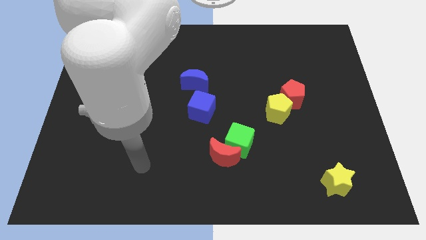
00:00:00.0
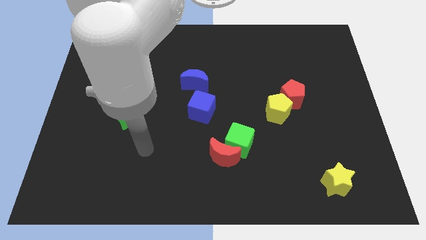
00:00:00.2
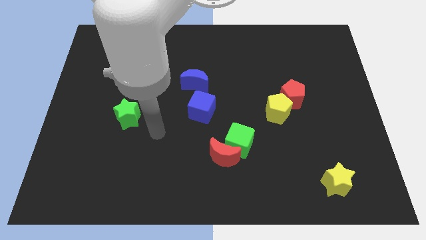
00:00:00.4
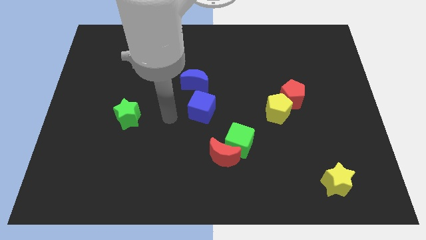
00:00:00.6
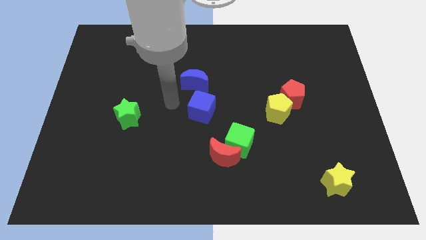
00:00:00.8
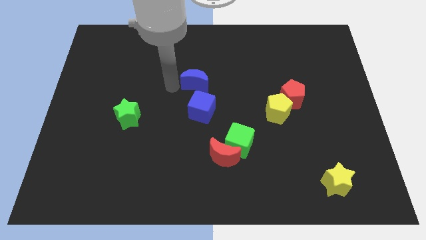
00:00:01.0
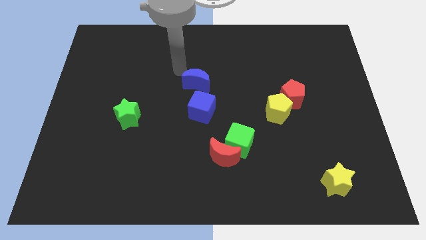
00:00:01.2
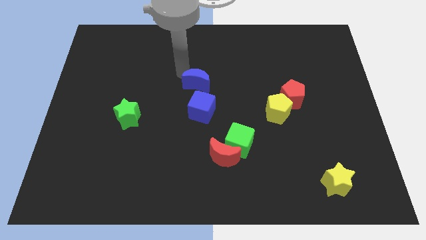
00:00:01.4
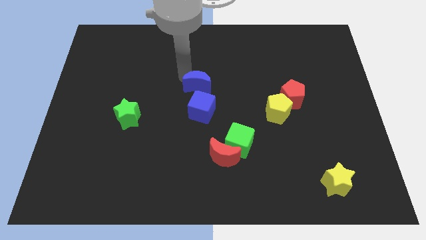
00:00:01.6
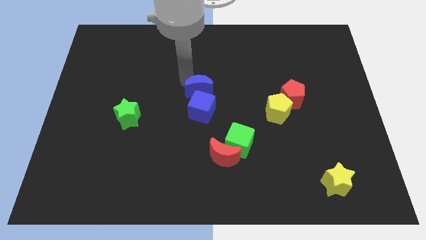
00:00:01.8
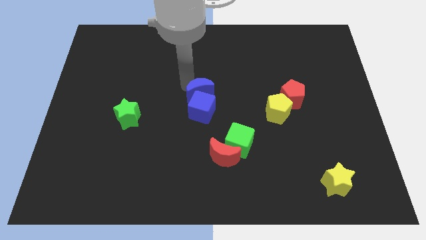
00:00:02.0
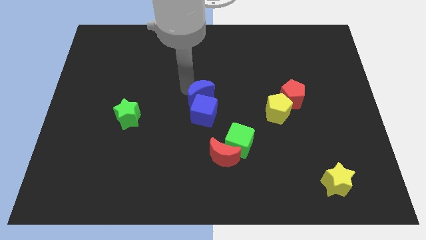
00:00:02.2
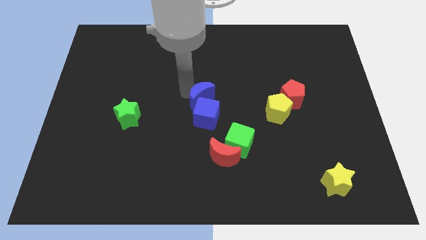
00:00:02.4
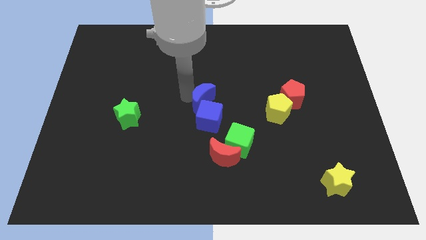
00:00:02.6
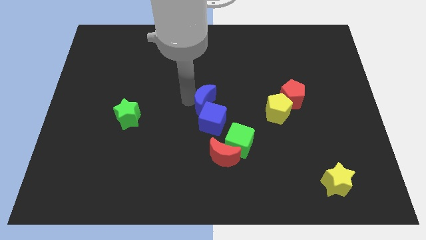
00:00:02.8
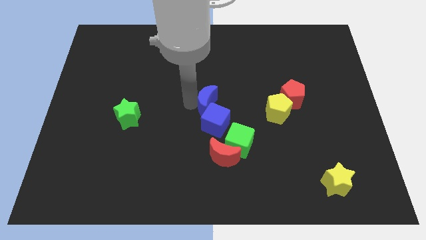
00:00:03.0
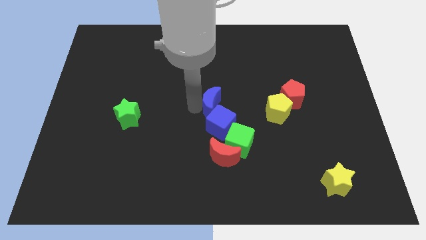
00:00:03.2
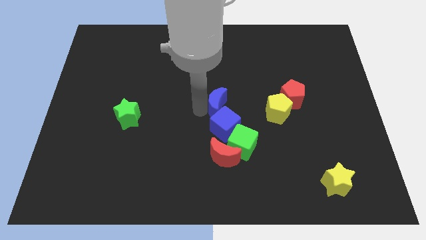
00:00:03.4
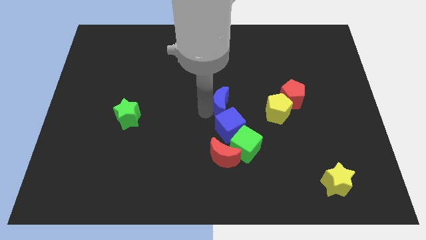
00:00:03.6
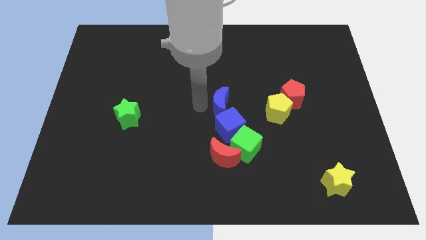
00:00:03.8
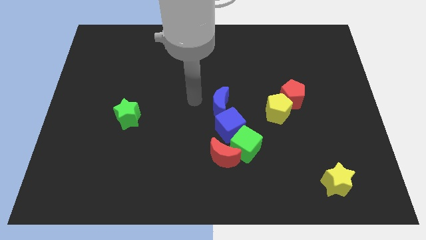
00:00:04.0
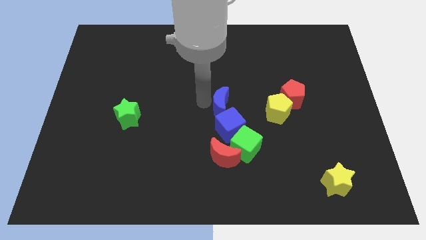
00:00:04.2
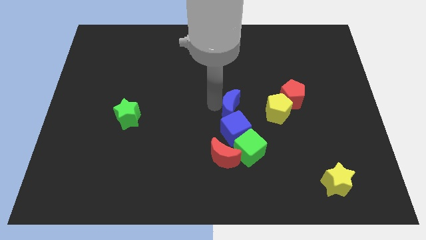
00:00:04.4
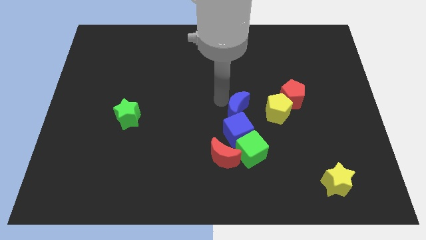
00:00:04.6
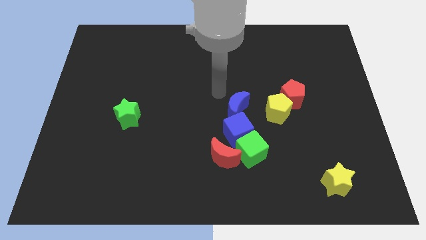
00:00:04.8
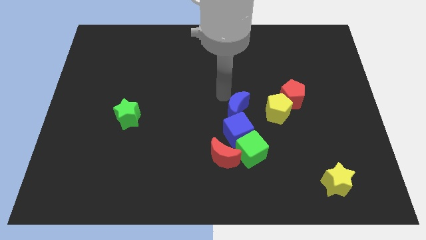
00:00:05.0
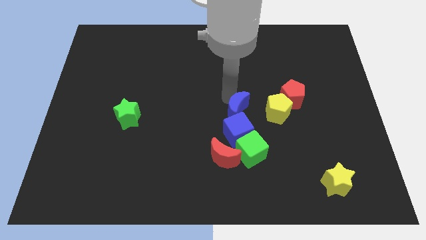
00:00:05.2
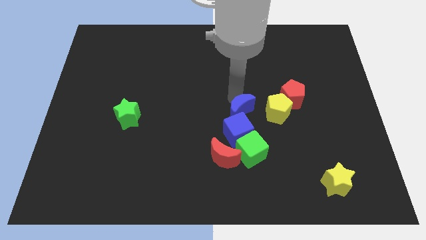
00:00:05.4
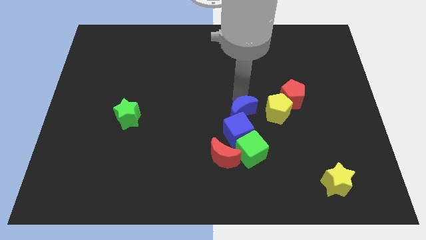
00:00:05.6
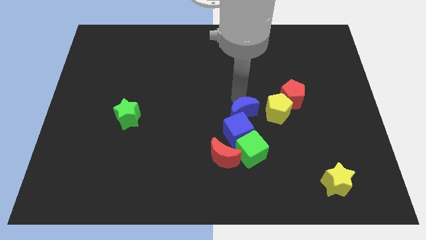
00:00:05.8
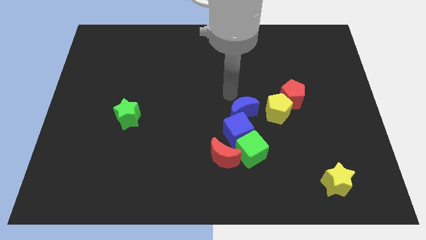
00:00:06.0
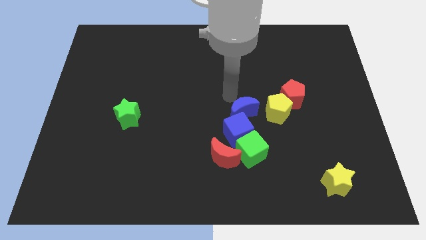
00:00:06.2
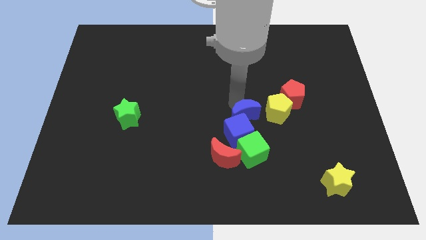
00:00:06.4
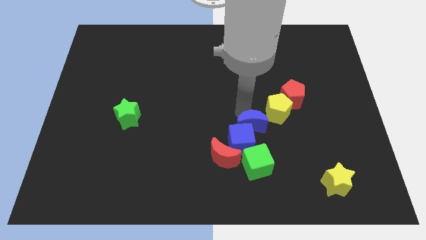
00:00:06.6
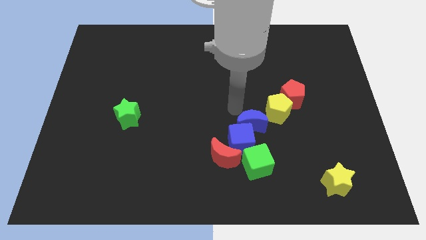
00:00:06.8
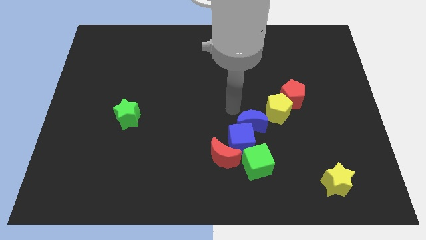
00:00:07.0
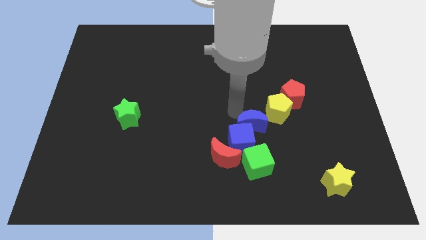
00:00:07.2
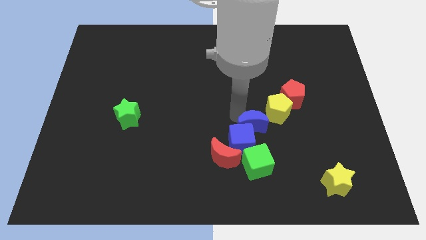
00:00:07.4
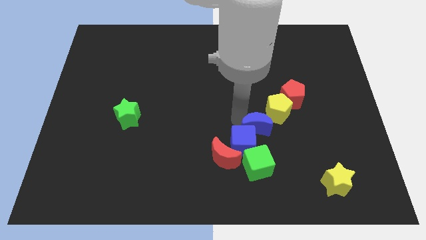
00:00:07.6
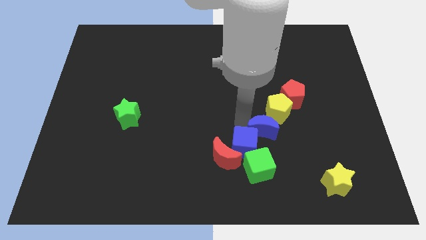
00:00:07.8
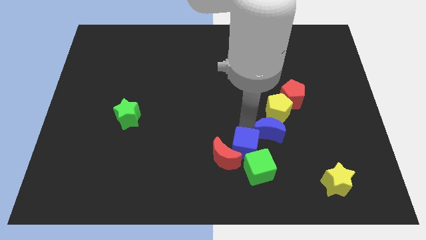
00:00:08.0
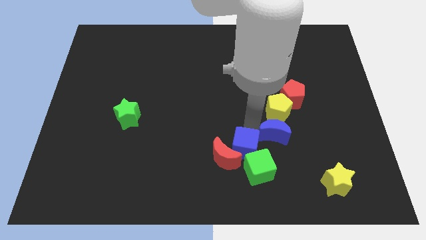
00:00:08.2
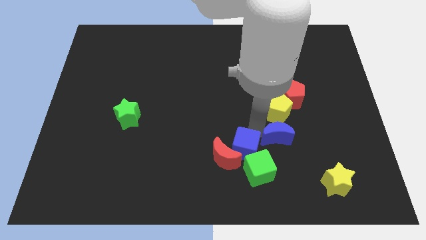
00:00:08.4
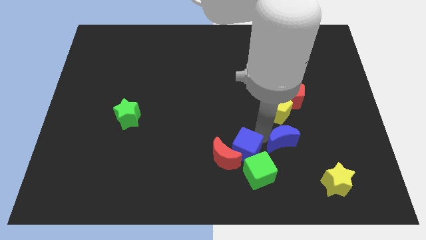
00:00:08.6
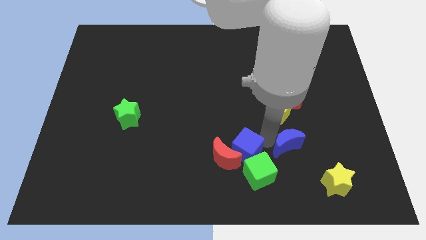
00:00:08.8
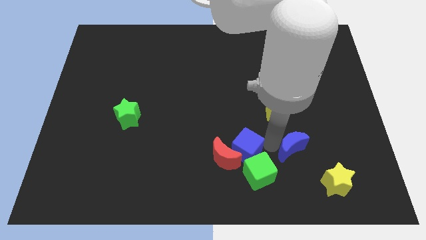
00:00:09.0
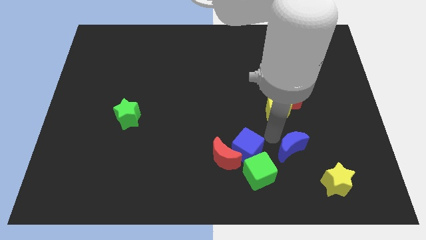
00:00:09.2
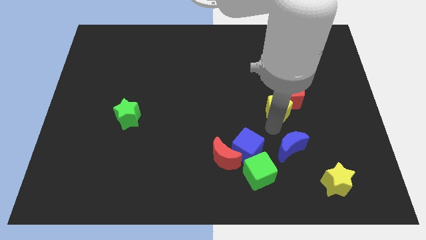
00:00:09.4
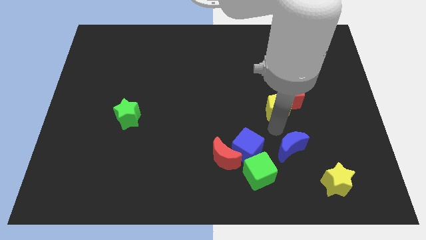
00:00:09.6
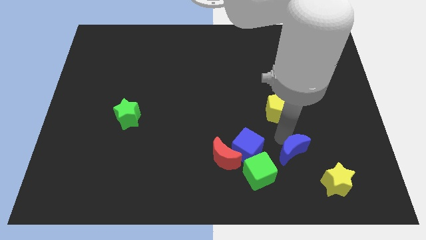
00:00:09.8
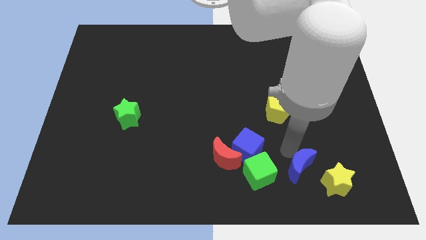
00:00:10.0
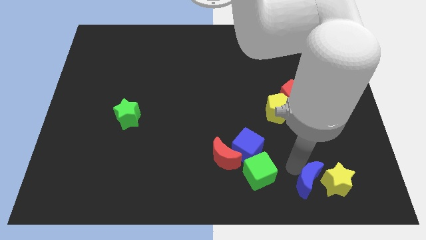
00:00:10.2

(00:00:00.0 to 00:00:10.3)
push the blue moon towards the yellow star

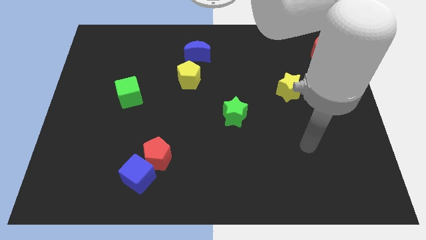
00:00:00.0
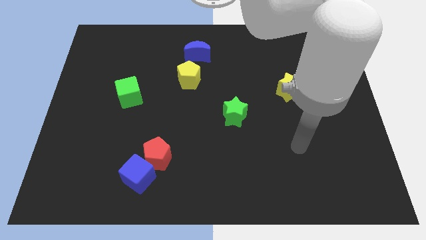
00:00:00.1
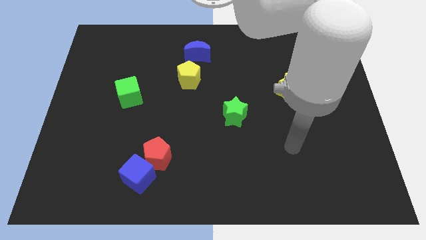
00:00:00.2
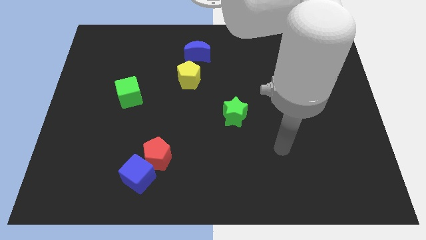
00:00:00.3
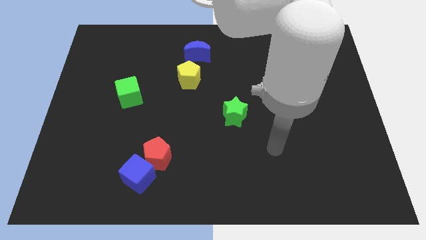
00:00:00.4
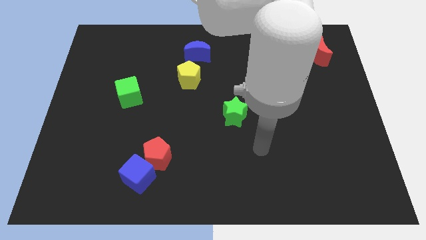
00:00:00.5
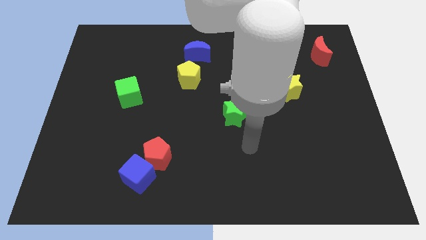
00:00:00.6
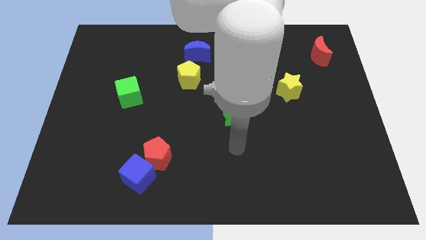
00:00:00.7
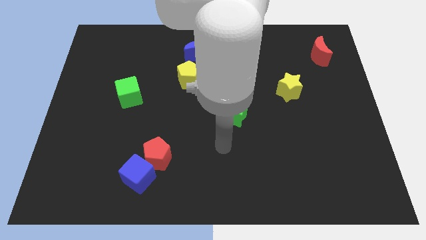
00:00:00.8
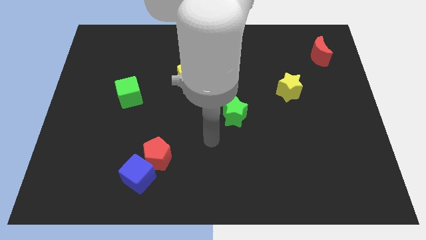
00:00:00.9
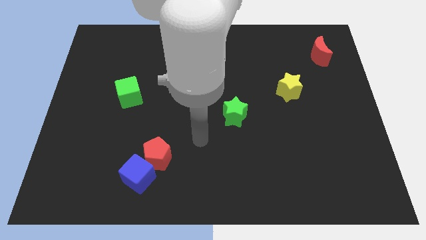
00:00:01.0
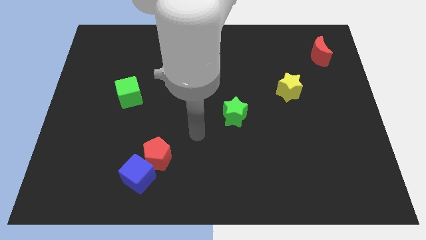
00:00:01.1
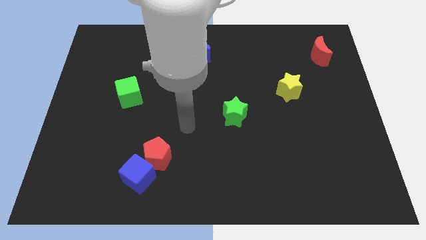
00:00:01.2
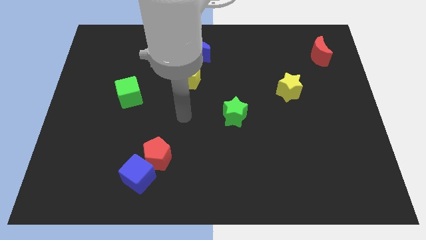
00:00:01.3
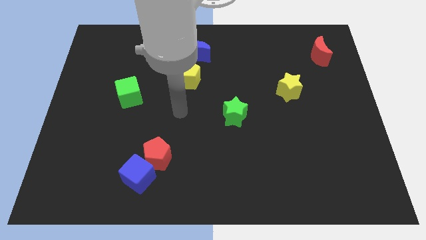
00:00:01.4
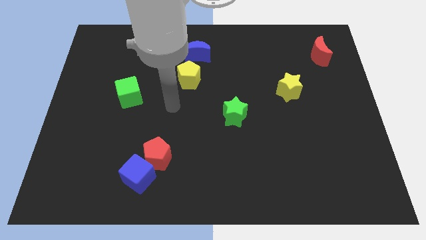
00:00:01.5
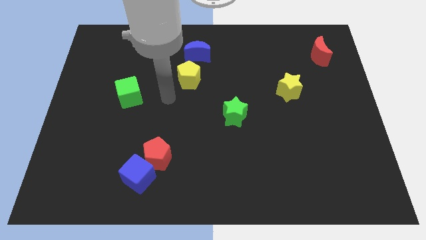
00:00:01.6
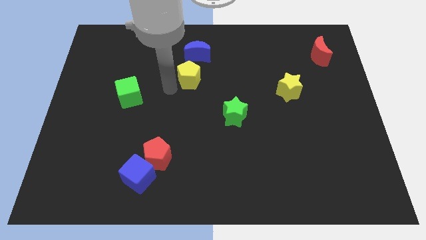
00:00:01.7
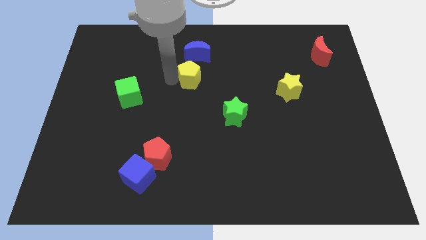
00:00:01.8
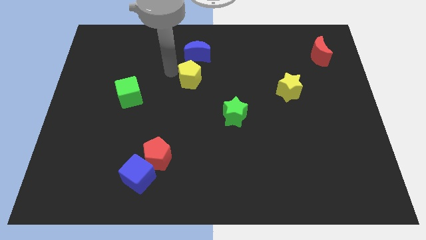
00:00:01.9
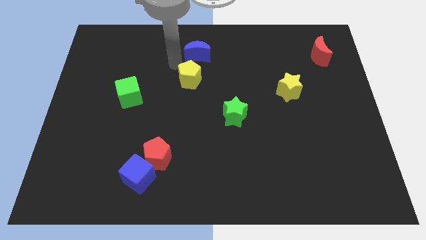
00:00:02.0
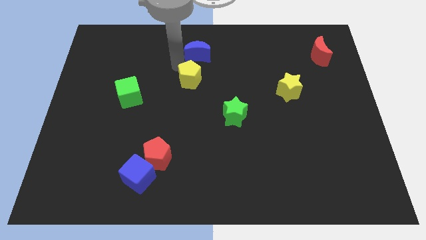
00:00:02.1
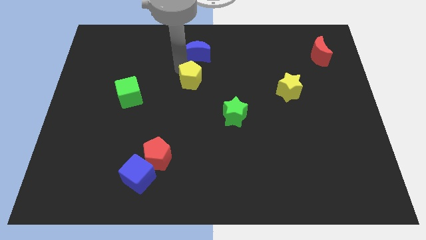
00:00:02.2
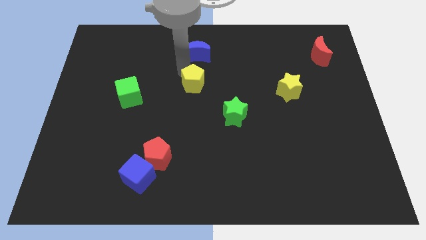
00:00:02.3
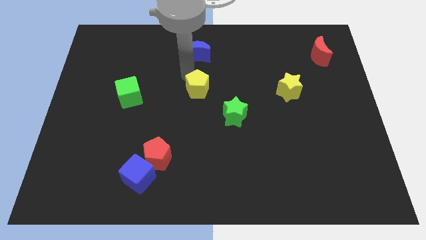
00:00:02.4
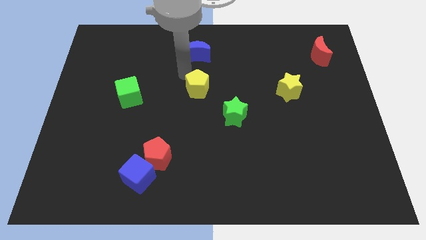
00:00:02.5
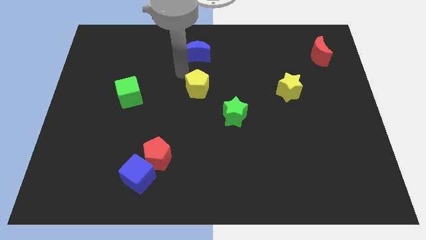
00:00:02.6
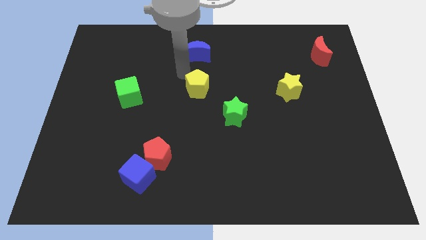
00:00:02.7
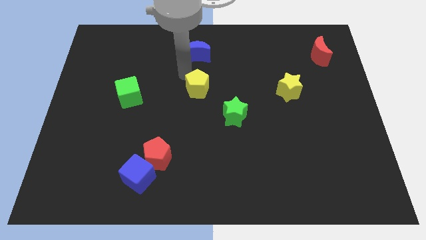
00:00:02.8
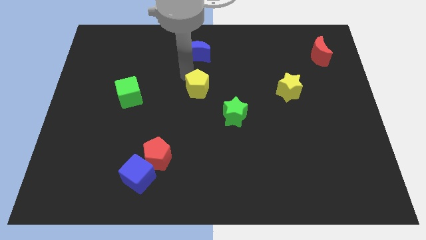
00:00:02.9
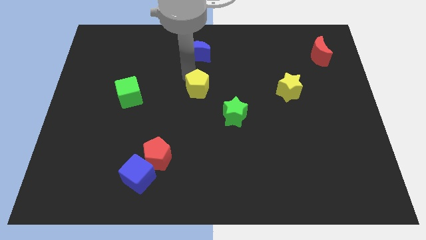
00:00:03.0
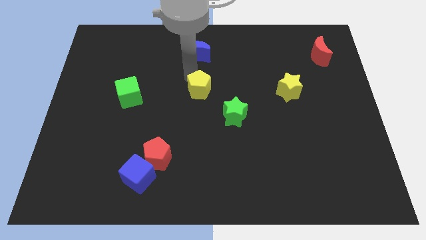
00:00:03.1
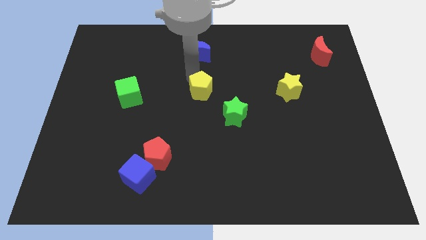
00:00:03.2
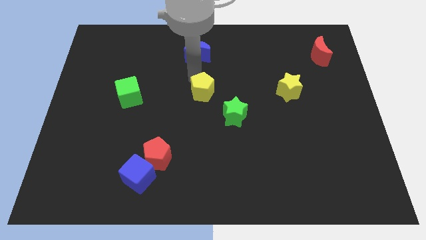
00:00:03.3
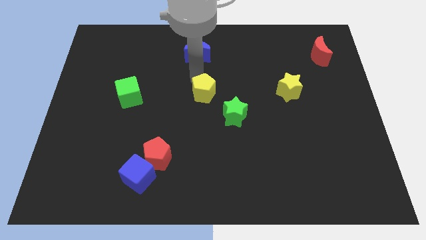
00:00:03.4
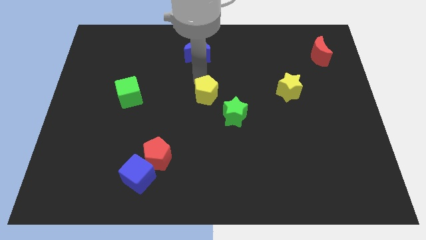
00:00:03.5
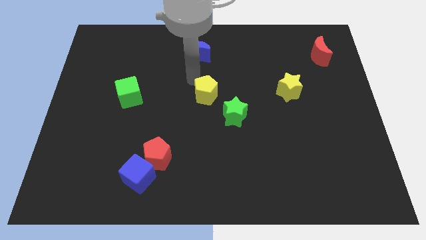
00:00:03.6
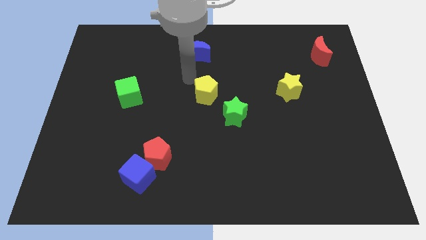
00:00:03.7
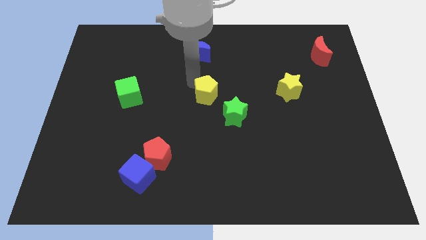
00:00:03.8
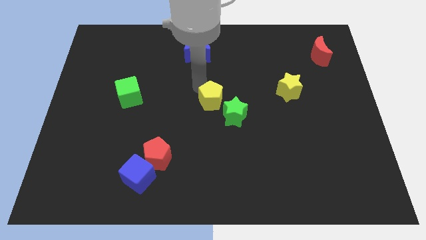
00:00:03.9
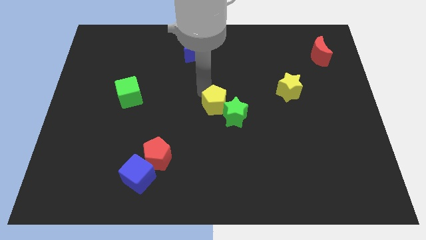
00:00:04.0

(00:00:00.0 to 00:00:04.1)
slide the yellow pentagon towards the green star
